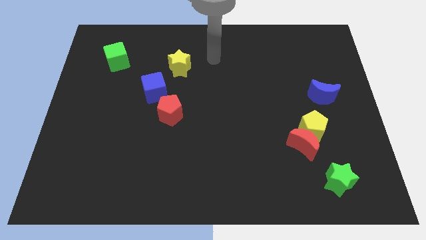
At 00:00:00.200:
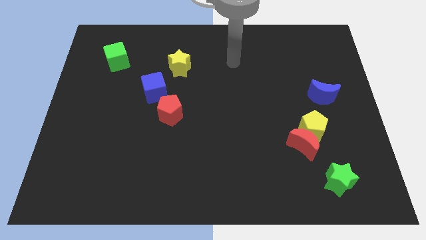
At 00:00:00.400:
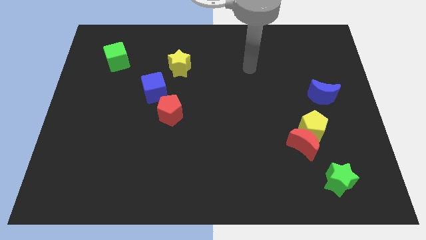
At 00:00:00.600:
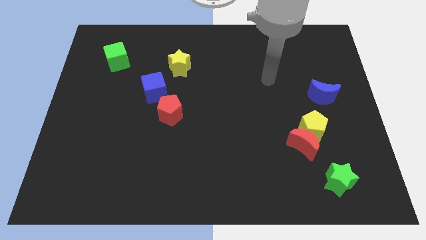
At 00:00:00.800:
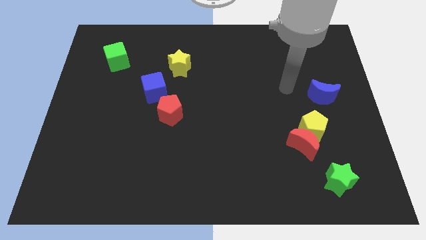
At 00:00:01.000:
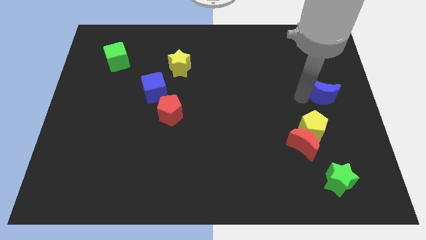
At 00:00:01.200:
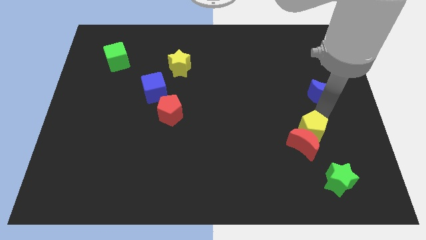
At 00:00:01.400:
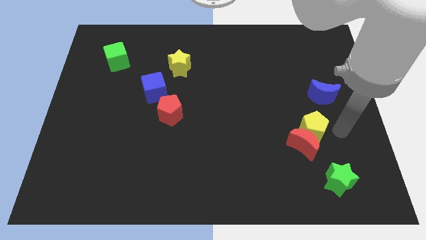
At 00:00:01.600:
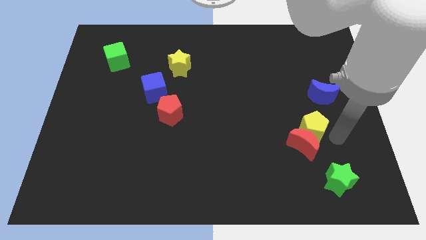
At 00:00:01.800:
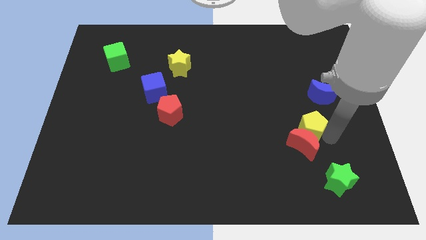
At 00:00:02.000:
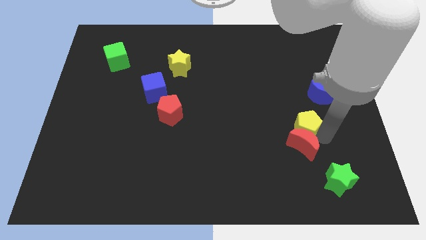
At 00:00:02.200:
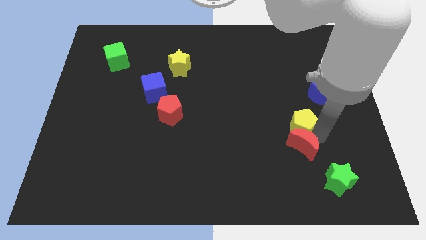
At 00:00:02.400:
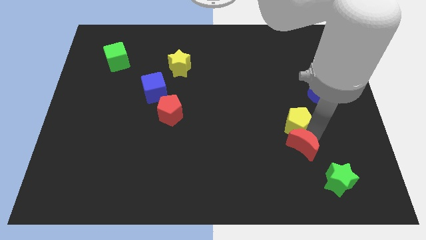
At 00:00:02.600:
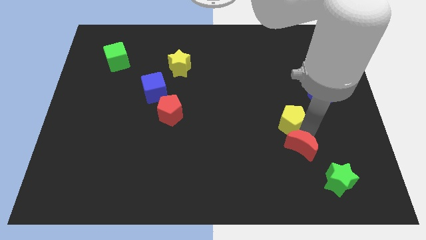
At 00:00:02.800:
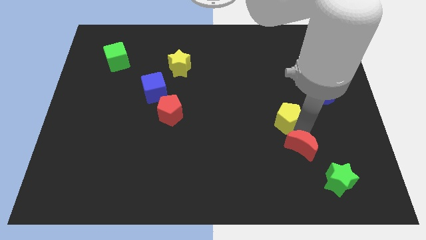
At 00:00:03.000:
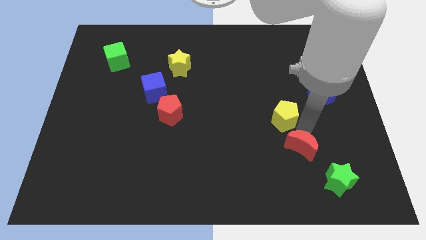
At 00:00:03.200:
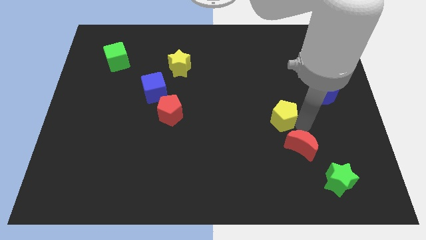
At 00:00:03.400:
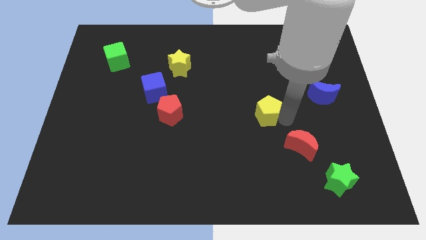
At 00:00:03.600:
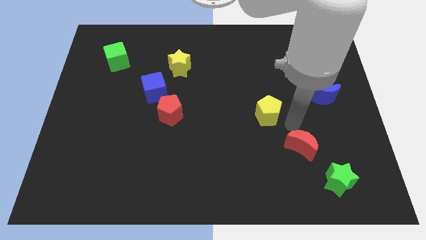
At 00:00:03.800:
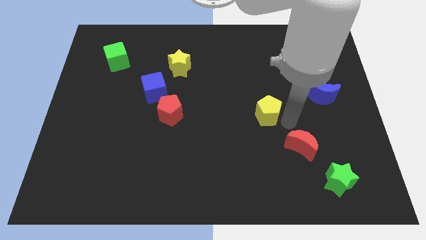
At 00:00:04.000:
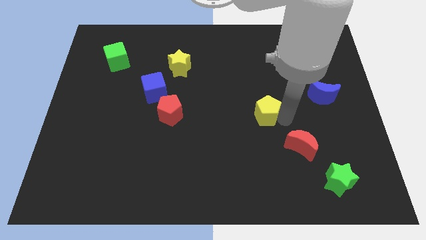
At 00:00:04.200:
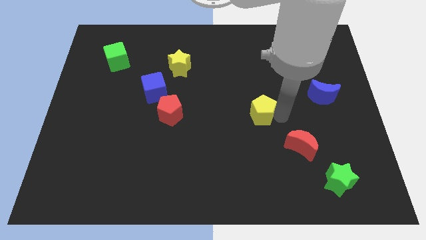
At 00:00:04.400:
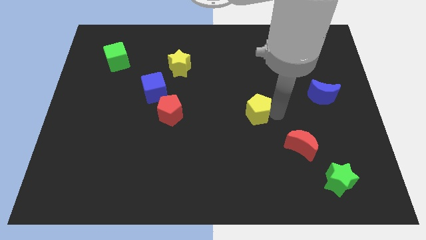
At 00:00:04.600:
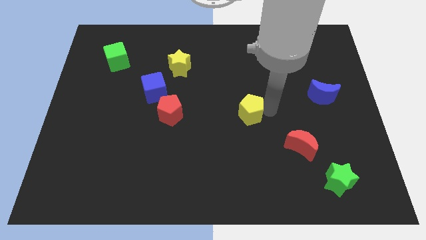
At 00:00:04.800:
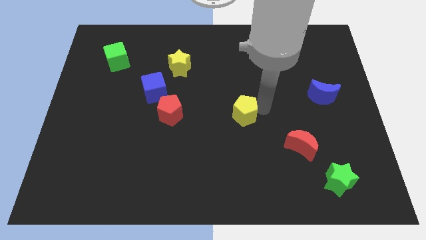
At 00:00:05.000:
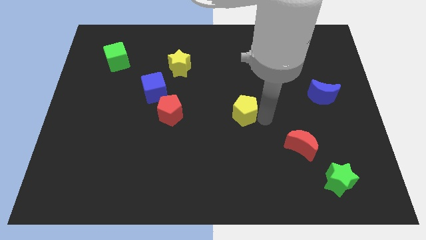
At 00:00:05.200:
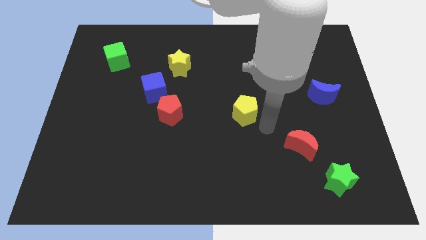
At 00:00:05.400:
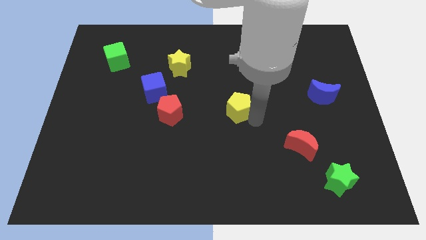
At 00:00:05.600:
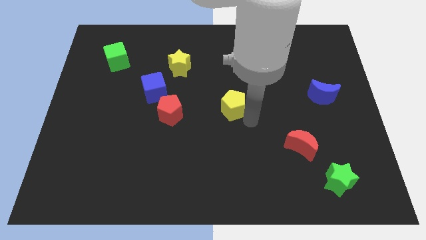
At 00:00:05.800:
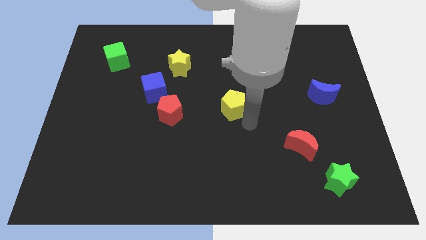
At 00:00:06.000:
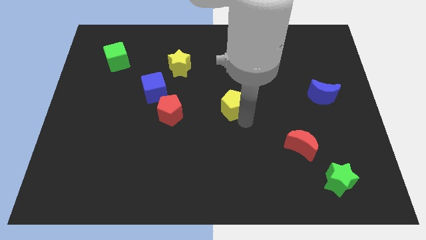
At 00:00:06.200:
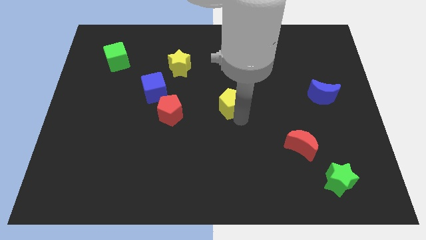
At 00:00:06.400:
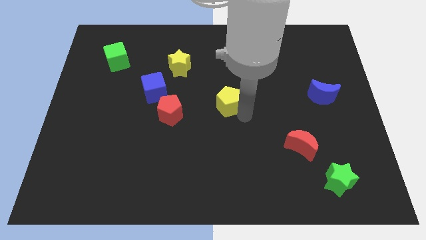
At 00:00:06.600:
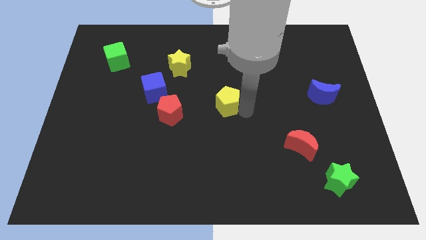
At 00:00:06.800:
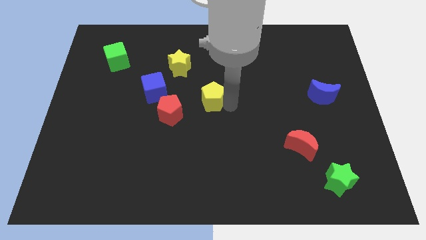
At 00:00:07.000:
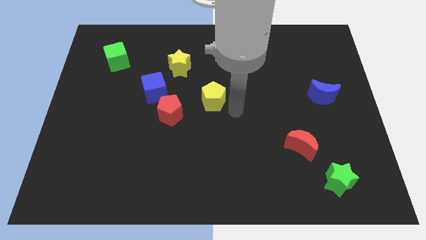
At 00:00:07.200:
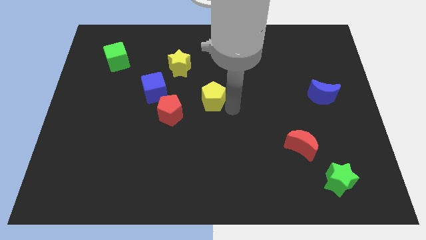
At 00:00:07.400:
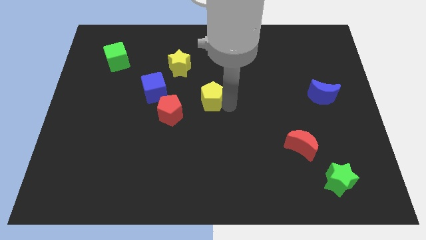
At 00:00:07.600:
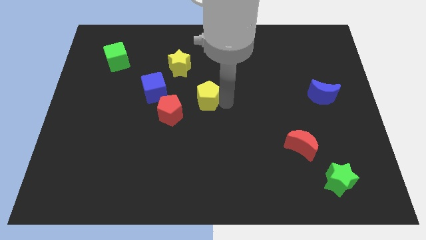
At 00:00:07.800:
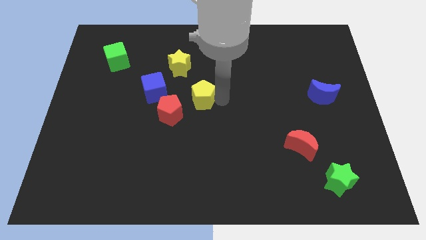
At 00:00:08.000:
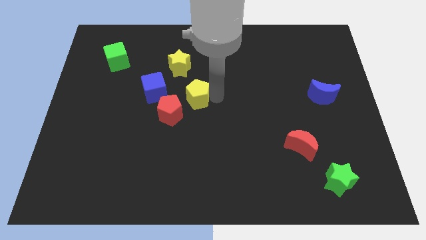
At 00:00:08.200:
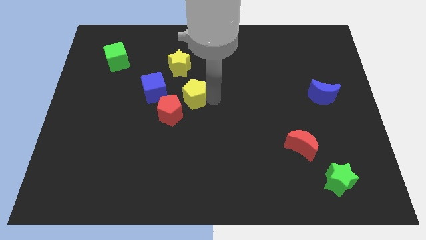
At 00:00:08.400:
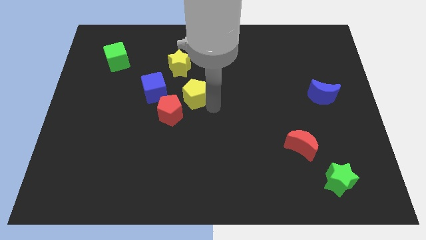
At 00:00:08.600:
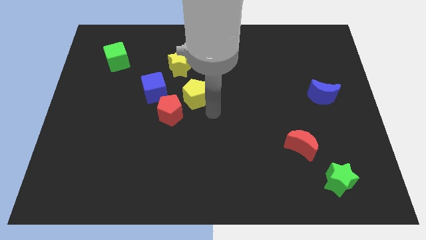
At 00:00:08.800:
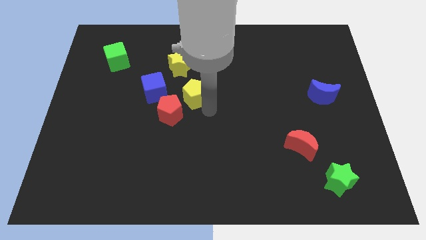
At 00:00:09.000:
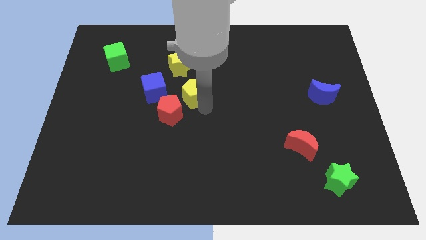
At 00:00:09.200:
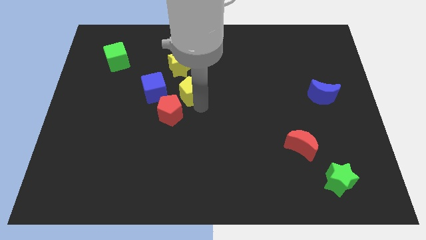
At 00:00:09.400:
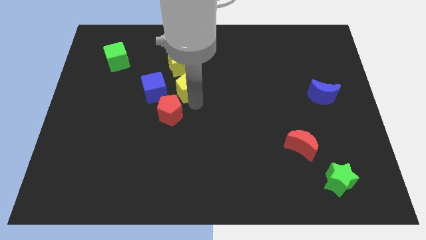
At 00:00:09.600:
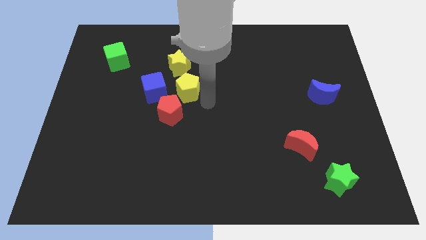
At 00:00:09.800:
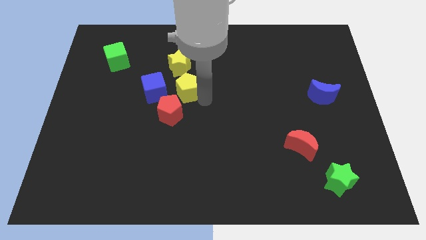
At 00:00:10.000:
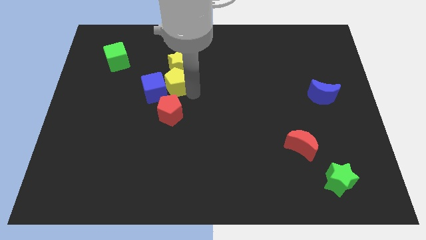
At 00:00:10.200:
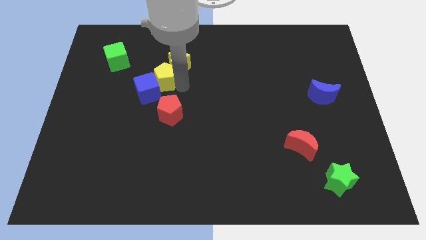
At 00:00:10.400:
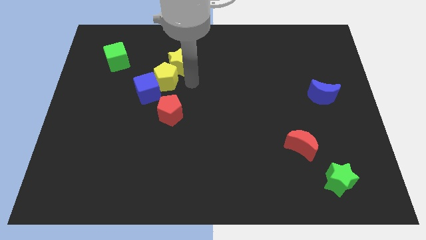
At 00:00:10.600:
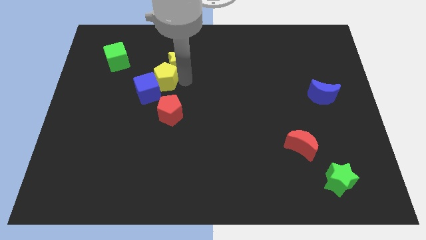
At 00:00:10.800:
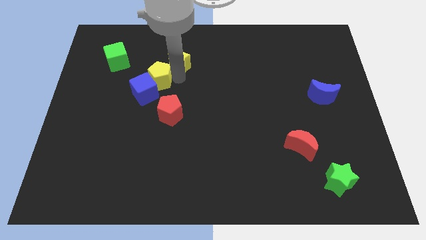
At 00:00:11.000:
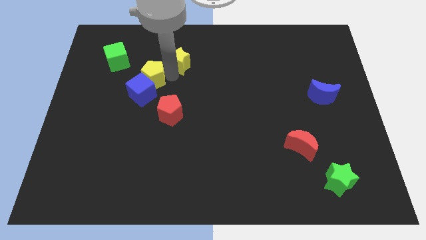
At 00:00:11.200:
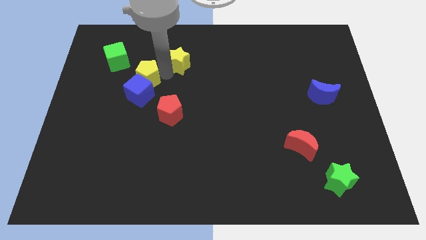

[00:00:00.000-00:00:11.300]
move the yellow pentagon to the top left of the blue cube
